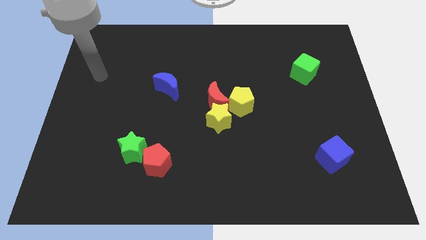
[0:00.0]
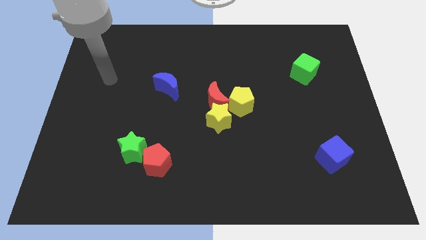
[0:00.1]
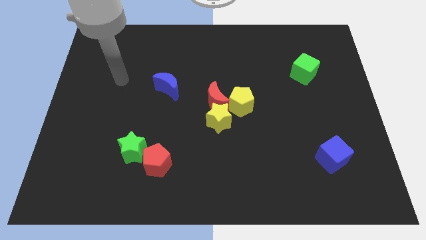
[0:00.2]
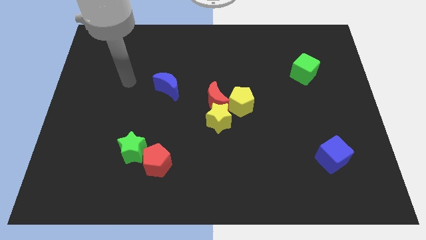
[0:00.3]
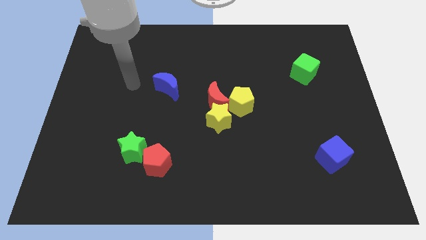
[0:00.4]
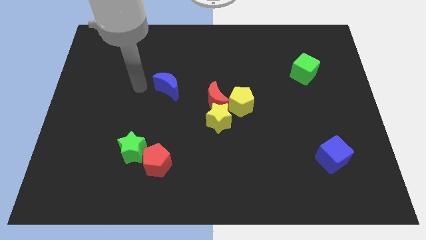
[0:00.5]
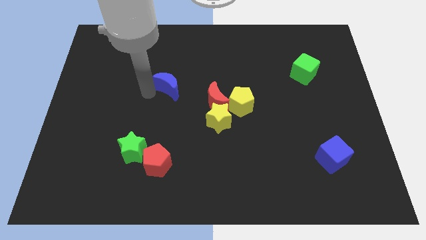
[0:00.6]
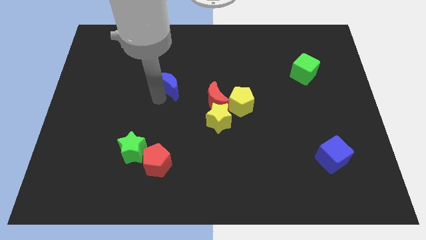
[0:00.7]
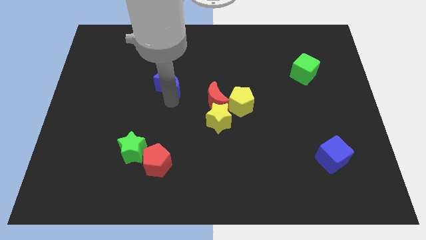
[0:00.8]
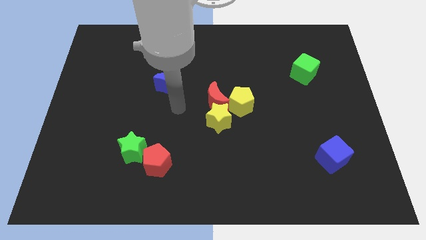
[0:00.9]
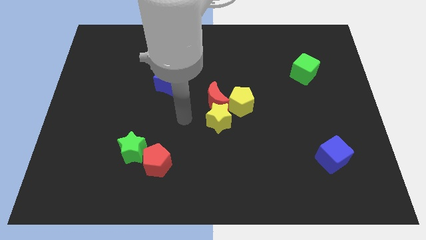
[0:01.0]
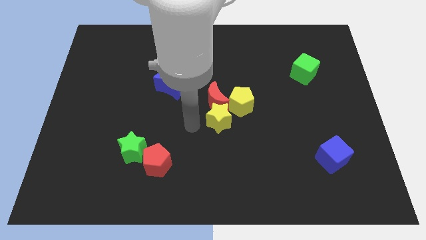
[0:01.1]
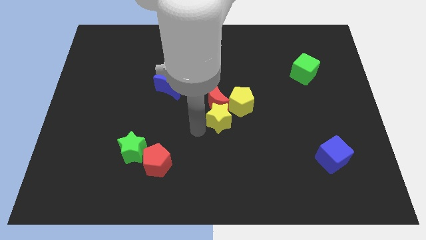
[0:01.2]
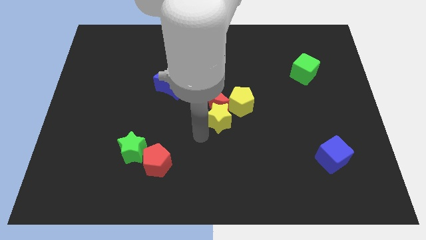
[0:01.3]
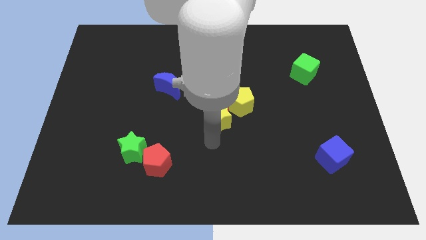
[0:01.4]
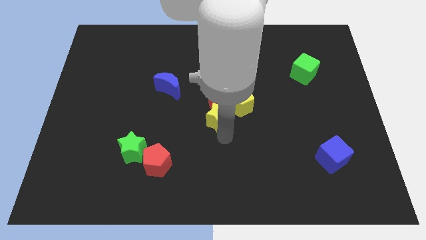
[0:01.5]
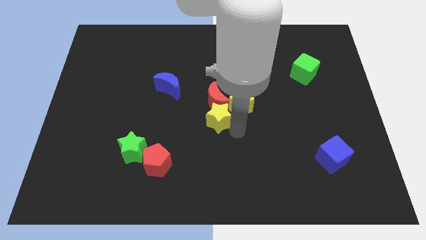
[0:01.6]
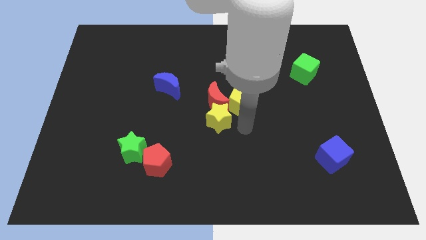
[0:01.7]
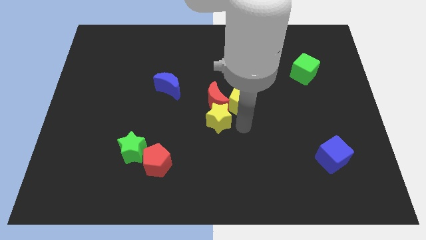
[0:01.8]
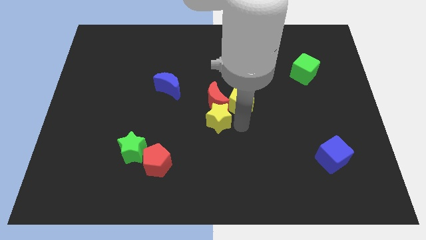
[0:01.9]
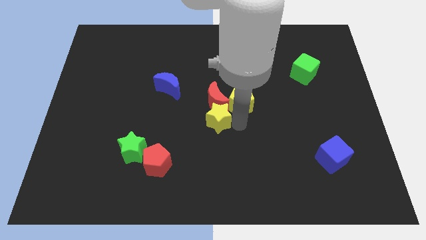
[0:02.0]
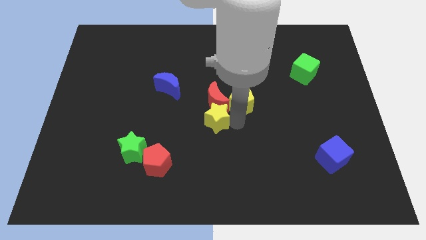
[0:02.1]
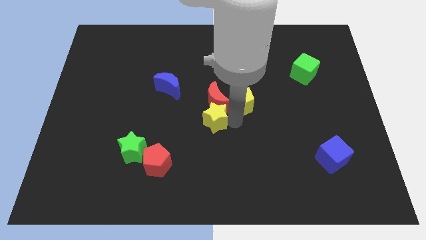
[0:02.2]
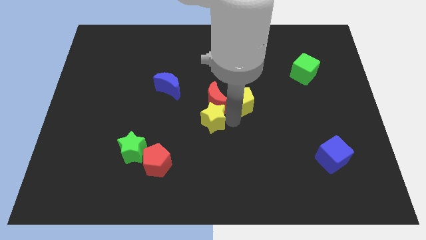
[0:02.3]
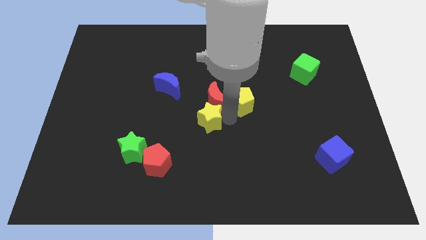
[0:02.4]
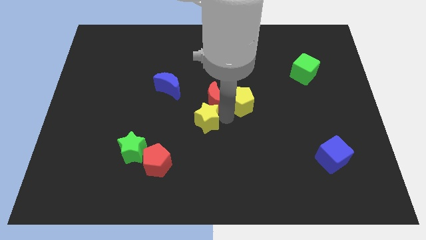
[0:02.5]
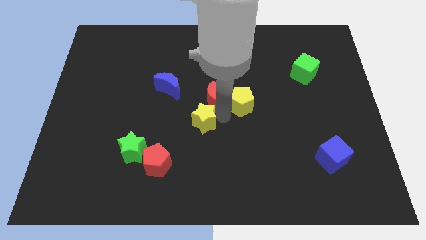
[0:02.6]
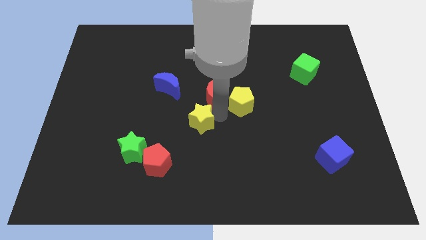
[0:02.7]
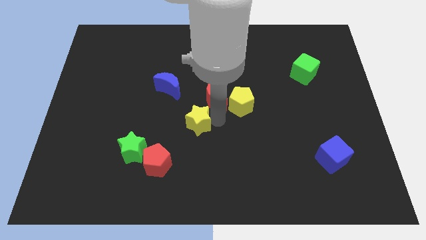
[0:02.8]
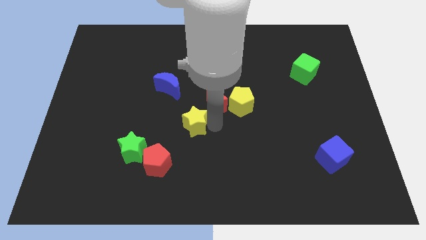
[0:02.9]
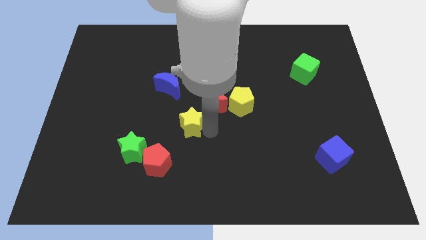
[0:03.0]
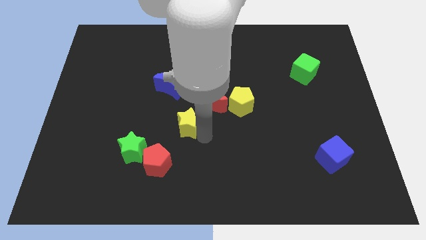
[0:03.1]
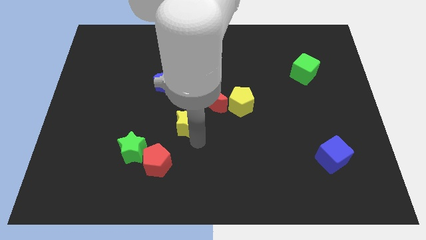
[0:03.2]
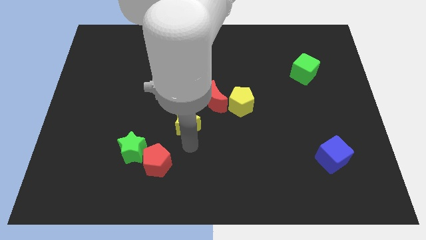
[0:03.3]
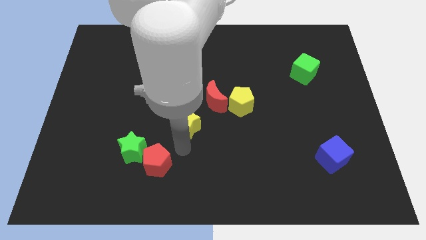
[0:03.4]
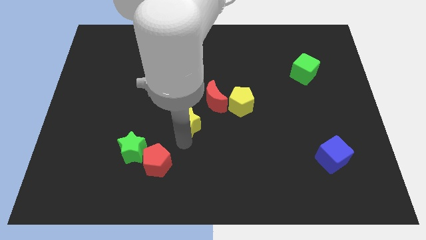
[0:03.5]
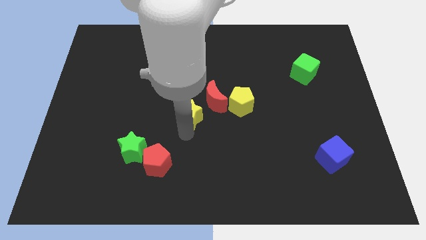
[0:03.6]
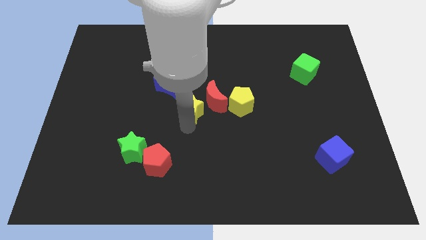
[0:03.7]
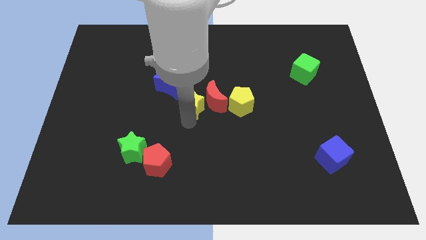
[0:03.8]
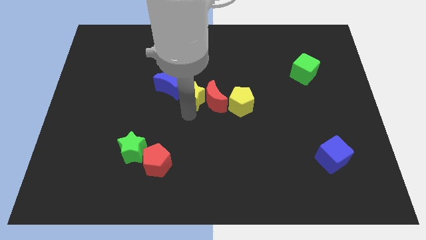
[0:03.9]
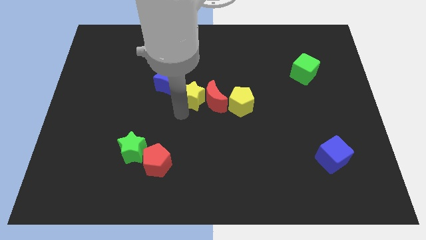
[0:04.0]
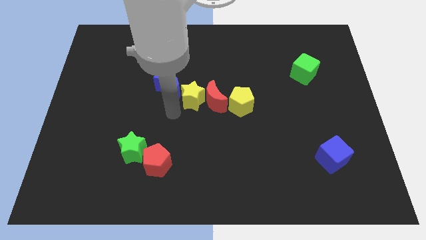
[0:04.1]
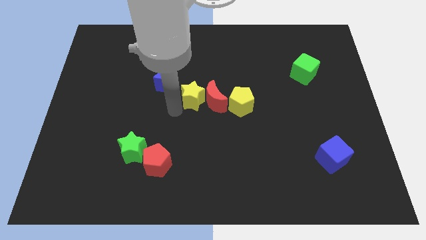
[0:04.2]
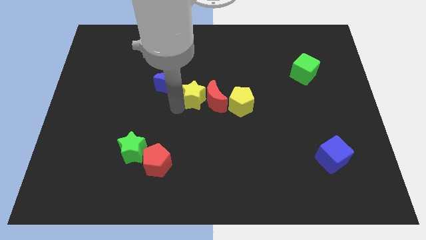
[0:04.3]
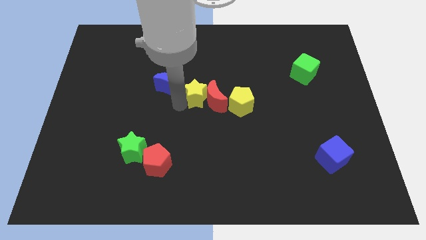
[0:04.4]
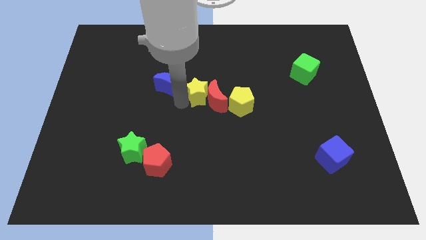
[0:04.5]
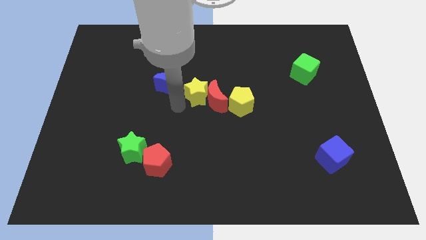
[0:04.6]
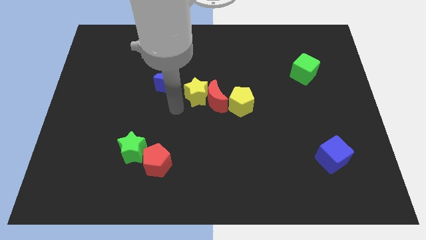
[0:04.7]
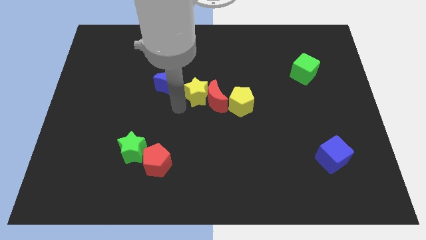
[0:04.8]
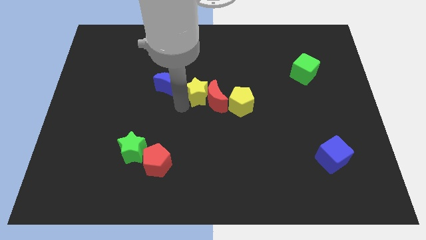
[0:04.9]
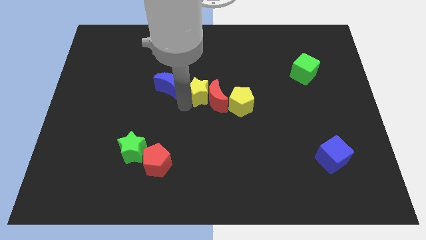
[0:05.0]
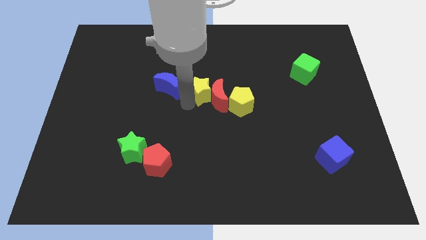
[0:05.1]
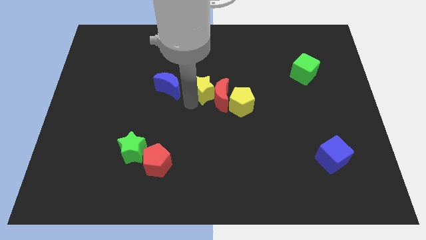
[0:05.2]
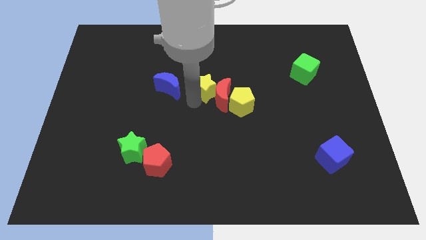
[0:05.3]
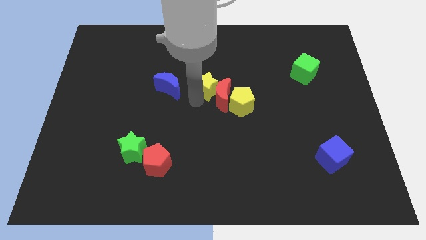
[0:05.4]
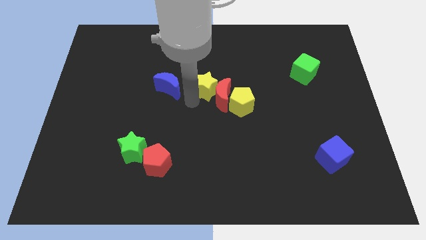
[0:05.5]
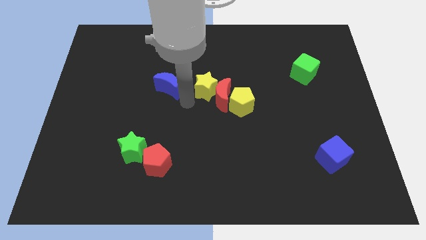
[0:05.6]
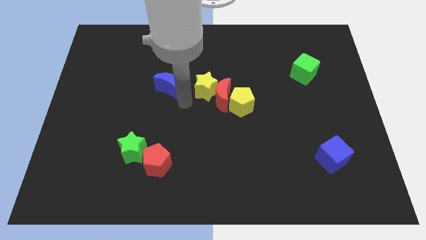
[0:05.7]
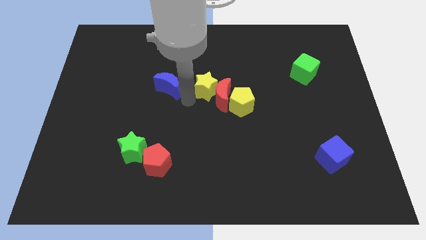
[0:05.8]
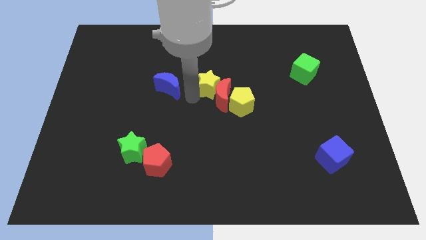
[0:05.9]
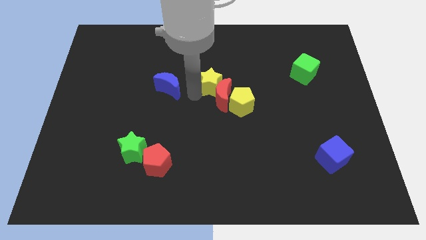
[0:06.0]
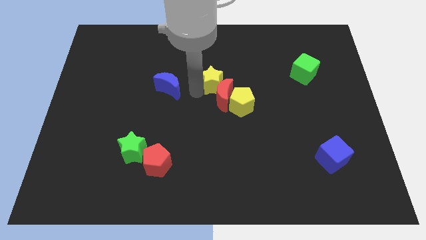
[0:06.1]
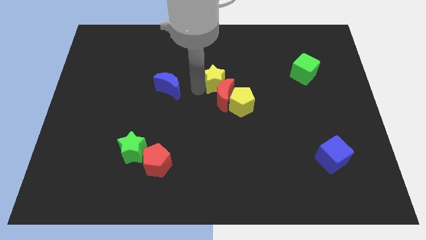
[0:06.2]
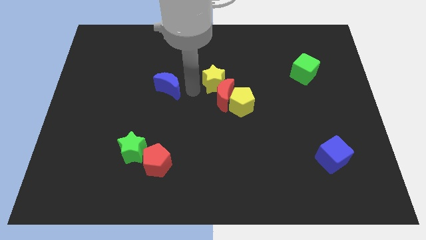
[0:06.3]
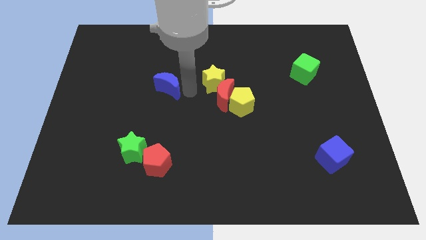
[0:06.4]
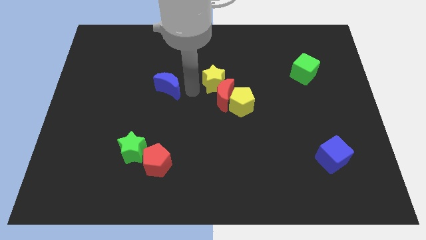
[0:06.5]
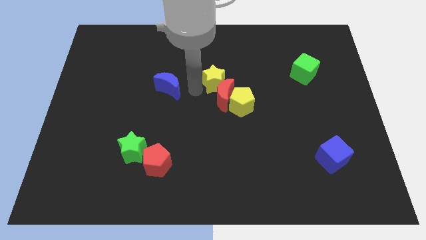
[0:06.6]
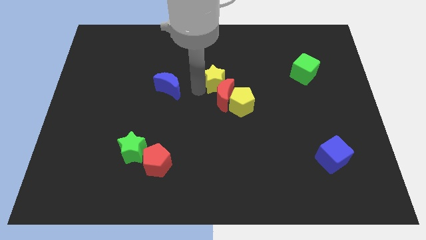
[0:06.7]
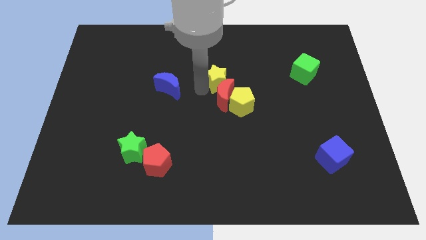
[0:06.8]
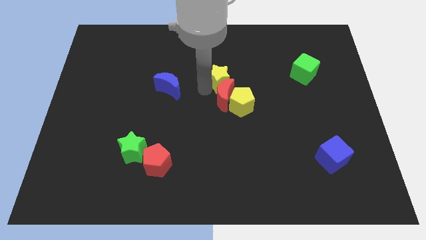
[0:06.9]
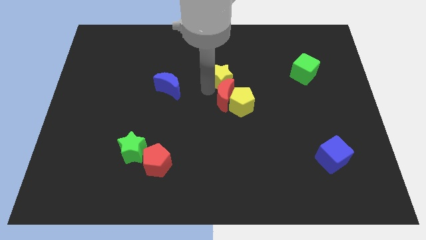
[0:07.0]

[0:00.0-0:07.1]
move the yellow star to the top of the yellow pentagon
